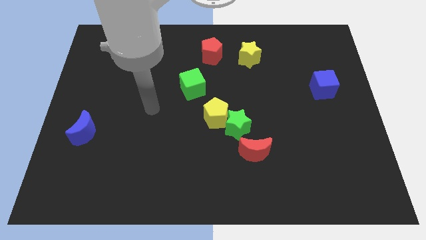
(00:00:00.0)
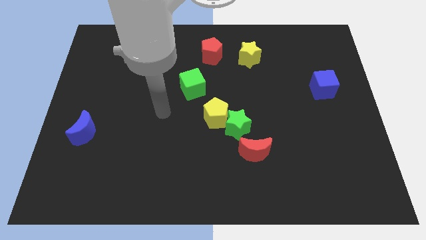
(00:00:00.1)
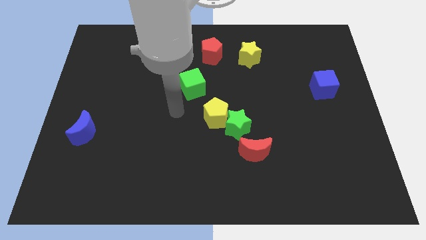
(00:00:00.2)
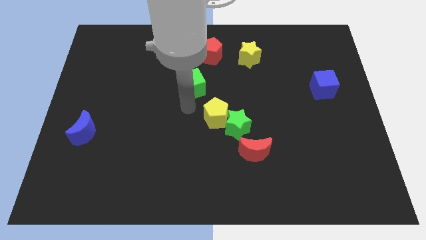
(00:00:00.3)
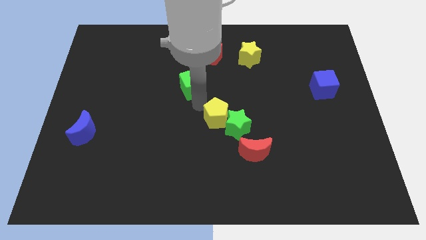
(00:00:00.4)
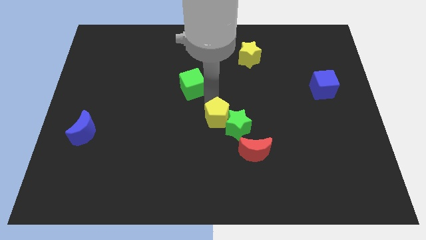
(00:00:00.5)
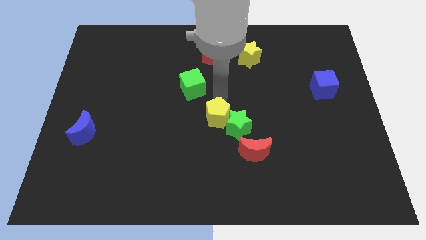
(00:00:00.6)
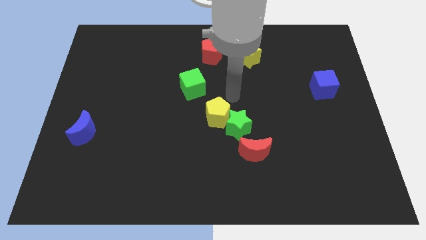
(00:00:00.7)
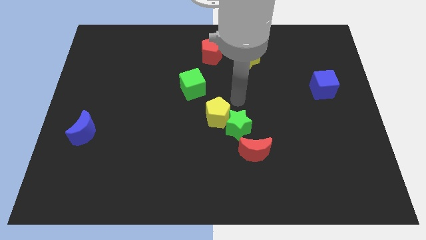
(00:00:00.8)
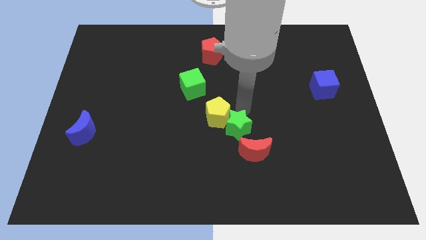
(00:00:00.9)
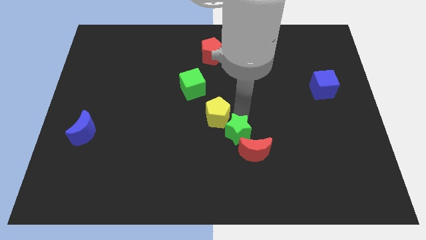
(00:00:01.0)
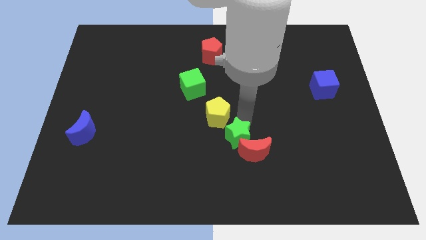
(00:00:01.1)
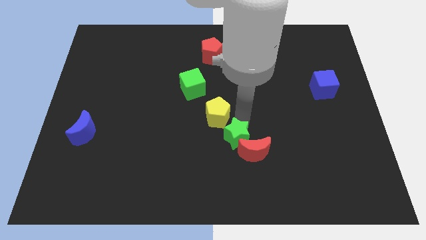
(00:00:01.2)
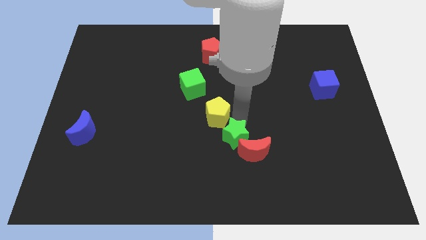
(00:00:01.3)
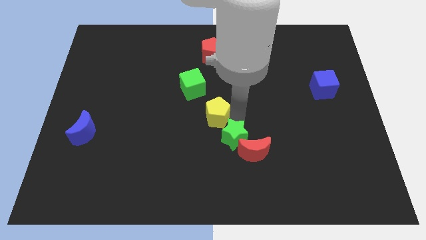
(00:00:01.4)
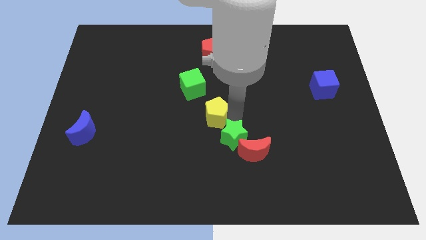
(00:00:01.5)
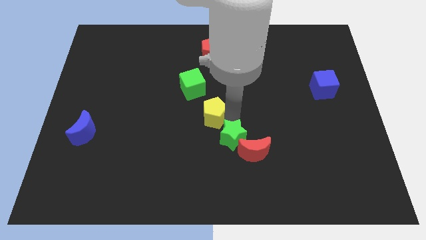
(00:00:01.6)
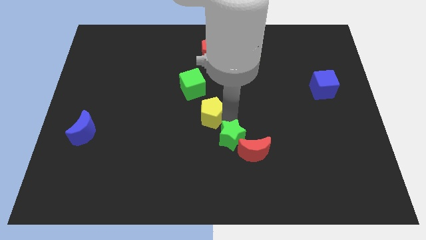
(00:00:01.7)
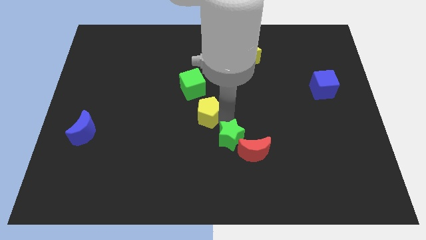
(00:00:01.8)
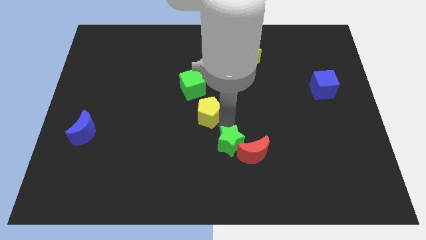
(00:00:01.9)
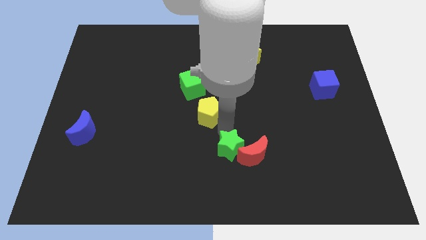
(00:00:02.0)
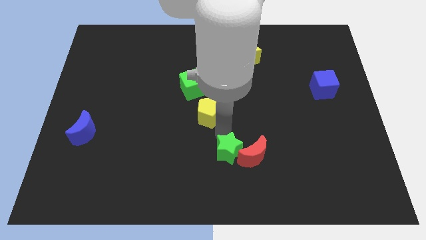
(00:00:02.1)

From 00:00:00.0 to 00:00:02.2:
pull the yellow pentagon apart from the green star

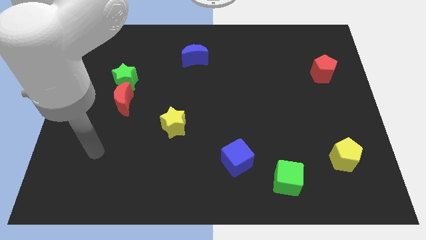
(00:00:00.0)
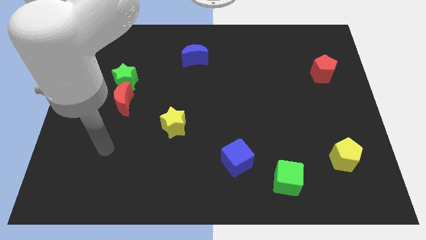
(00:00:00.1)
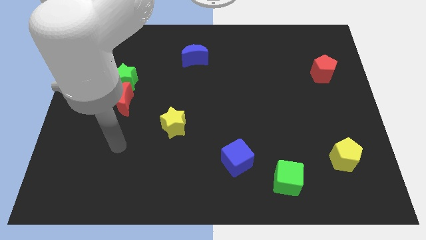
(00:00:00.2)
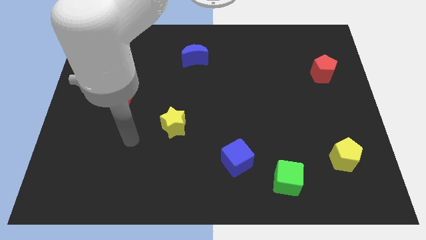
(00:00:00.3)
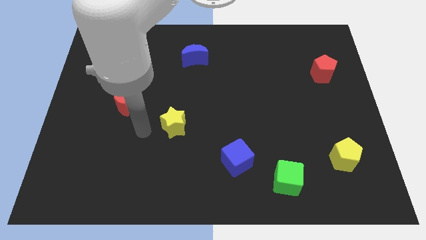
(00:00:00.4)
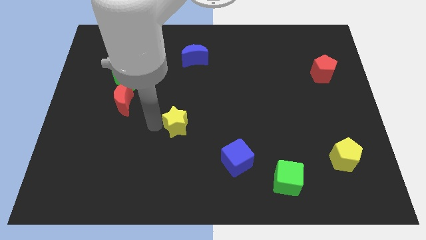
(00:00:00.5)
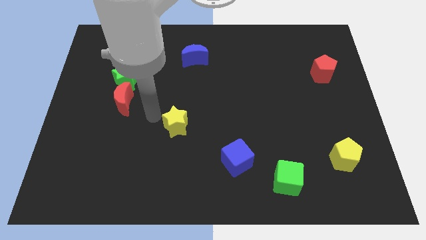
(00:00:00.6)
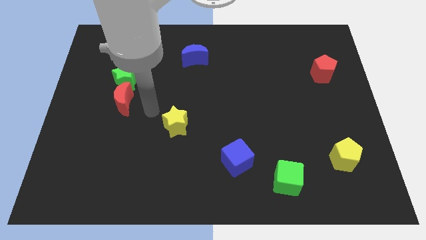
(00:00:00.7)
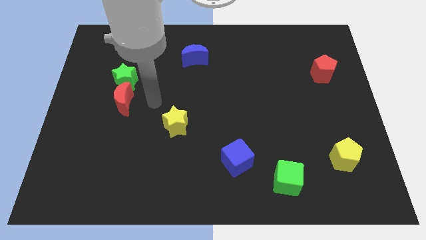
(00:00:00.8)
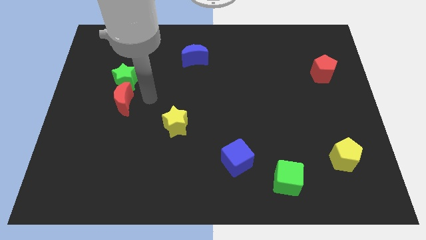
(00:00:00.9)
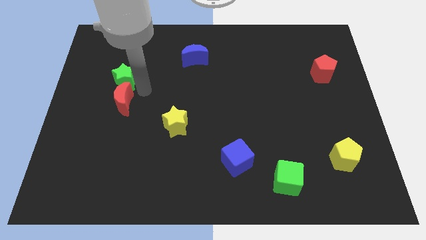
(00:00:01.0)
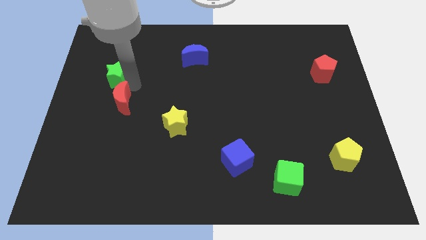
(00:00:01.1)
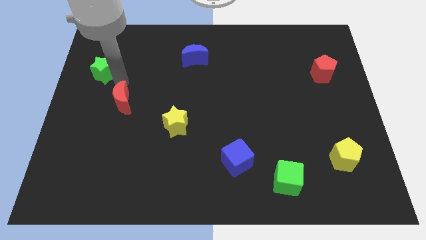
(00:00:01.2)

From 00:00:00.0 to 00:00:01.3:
pull the red moon apart from the green star

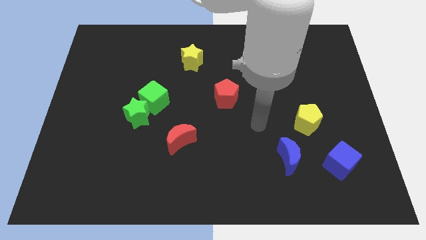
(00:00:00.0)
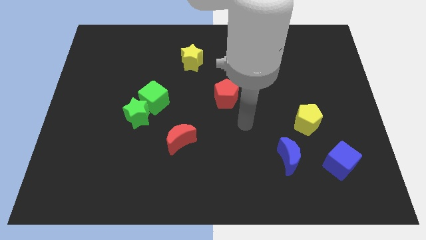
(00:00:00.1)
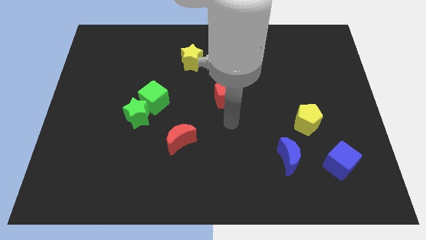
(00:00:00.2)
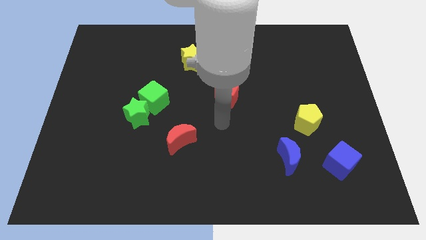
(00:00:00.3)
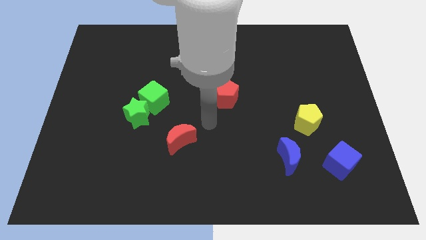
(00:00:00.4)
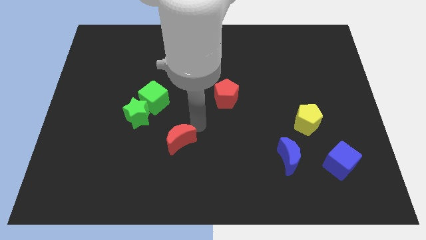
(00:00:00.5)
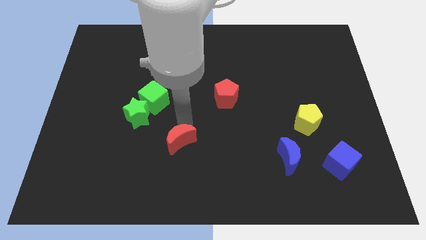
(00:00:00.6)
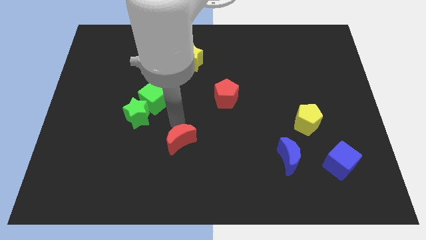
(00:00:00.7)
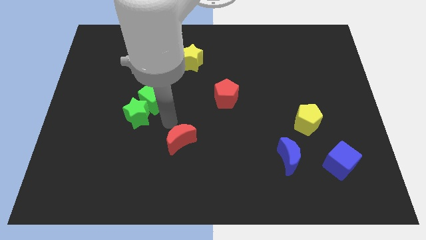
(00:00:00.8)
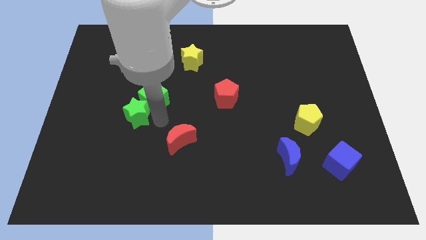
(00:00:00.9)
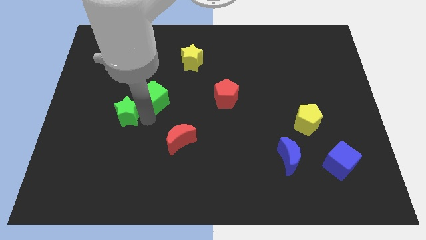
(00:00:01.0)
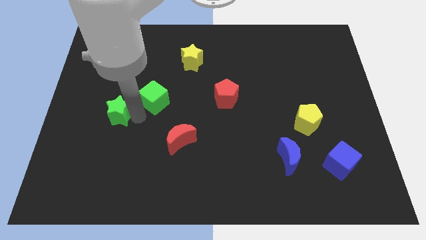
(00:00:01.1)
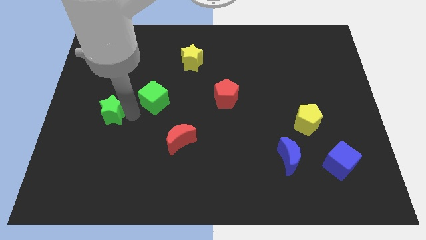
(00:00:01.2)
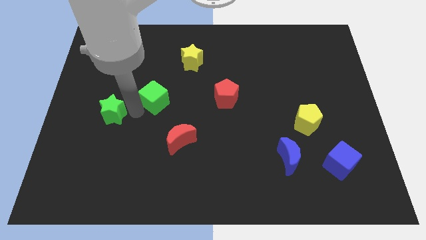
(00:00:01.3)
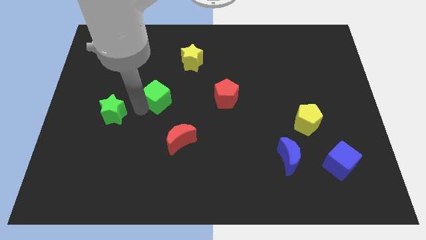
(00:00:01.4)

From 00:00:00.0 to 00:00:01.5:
pull the green cube apart from the green star

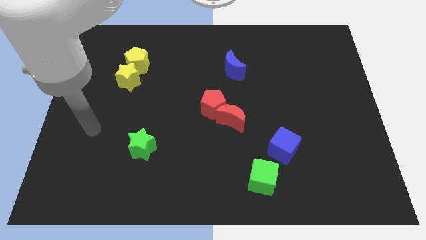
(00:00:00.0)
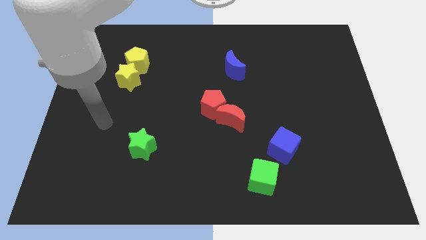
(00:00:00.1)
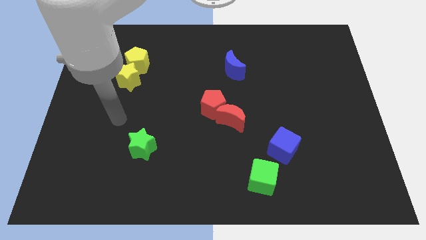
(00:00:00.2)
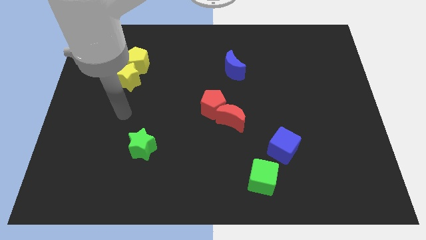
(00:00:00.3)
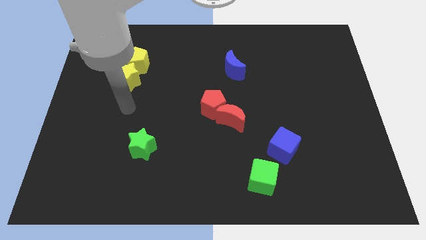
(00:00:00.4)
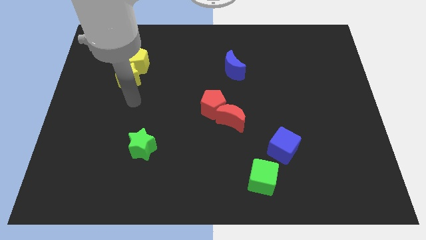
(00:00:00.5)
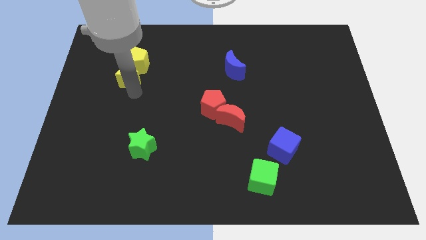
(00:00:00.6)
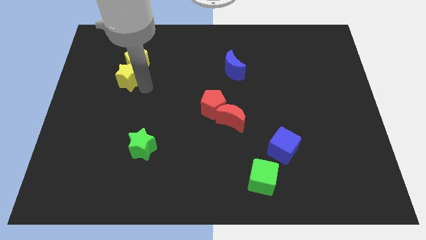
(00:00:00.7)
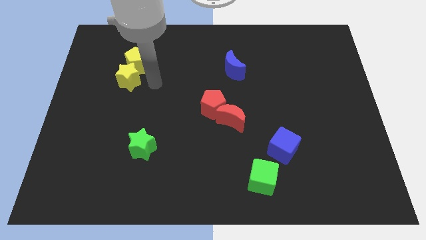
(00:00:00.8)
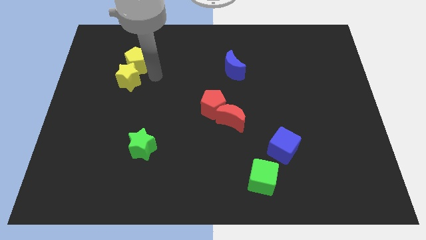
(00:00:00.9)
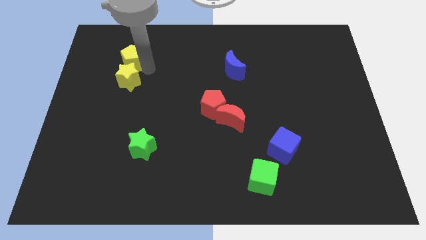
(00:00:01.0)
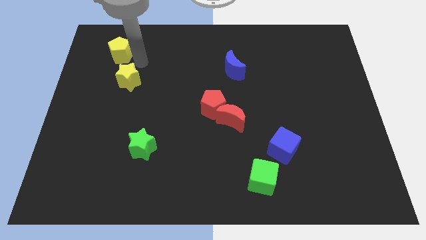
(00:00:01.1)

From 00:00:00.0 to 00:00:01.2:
pull the yellow star apart from the yellow pentagon

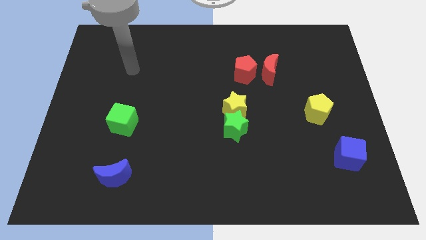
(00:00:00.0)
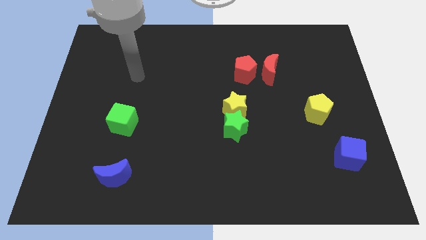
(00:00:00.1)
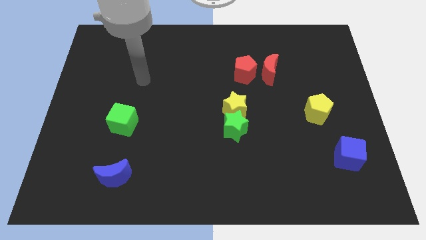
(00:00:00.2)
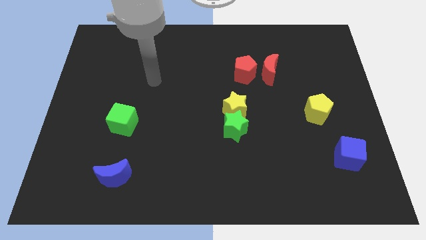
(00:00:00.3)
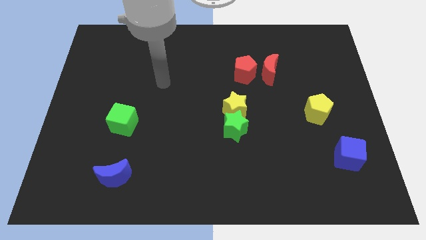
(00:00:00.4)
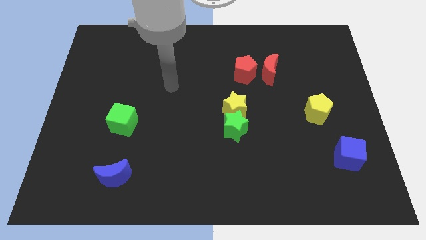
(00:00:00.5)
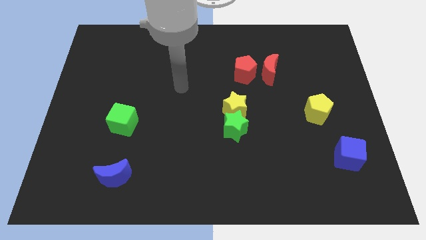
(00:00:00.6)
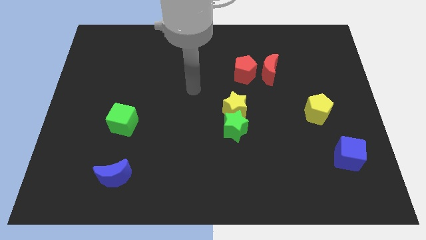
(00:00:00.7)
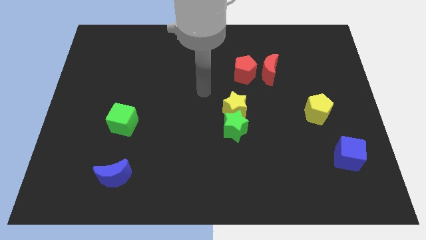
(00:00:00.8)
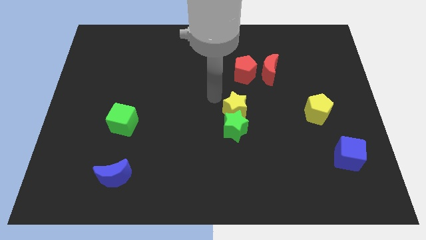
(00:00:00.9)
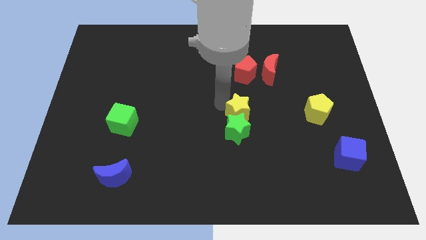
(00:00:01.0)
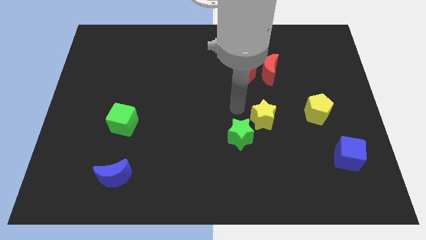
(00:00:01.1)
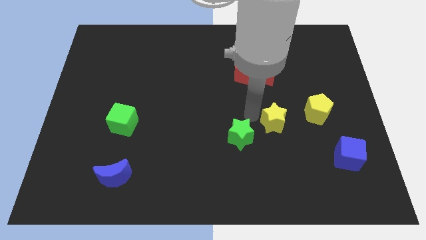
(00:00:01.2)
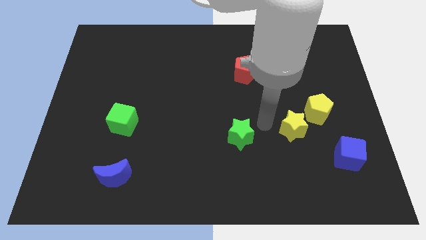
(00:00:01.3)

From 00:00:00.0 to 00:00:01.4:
pull the green star apart from the yellow star

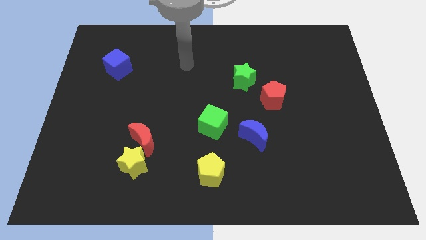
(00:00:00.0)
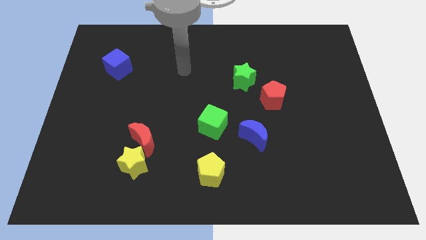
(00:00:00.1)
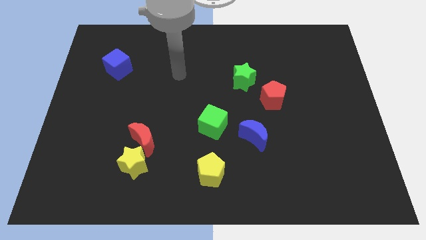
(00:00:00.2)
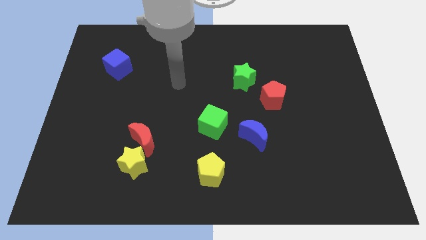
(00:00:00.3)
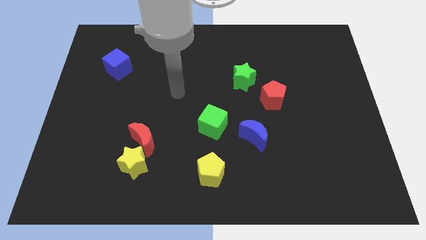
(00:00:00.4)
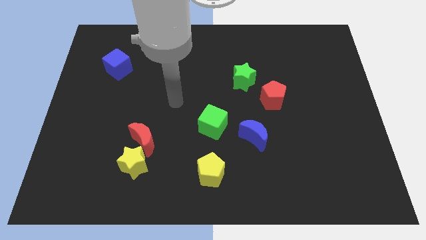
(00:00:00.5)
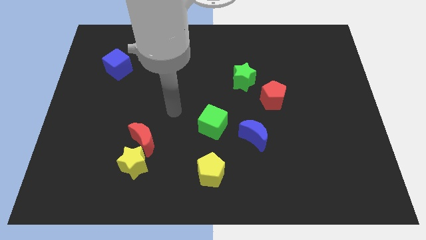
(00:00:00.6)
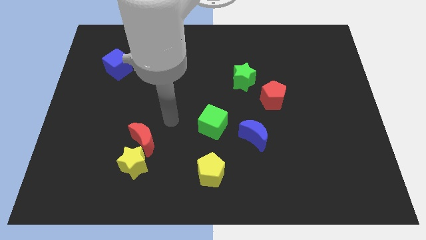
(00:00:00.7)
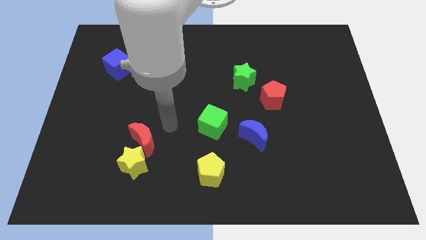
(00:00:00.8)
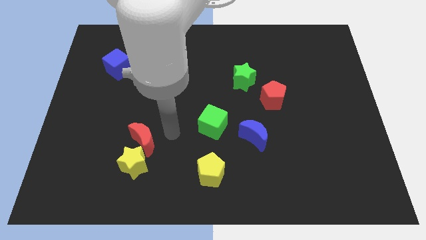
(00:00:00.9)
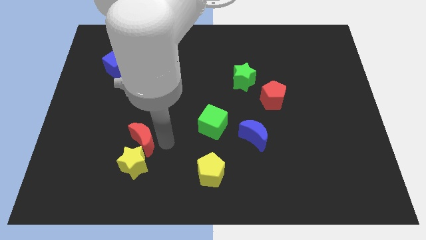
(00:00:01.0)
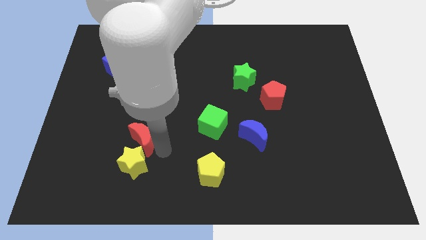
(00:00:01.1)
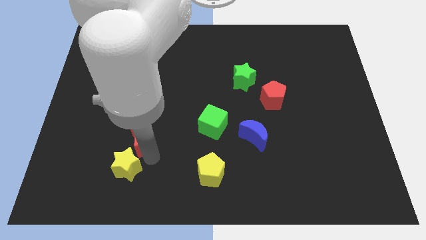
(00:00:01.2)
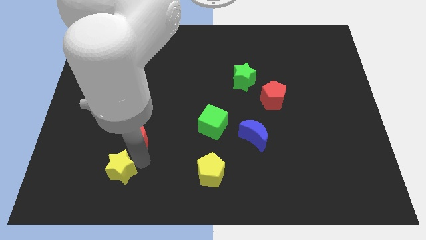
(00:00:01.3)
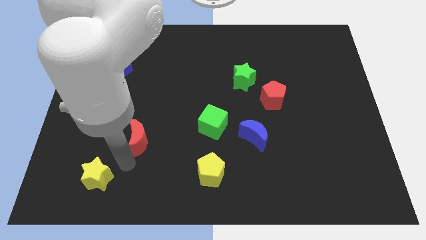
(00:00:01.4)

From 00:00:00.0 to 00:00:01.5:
pull the red moon apart from the yellow star
